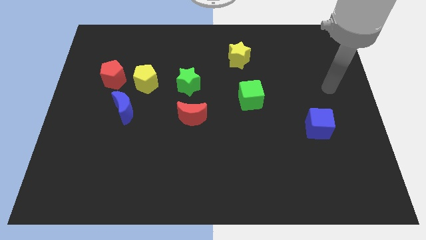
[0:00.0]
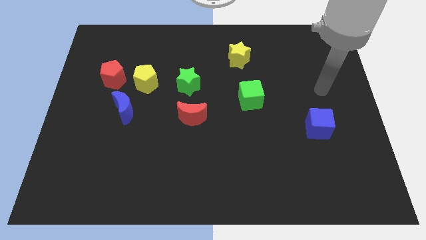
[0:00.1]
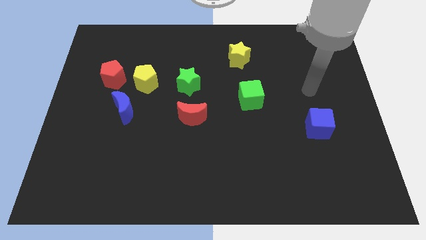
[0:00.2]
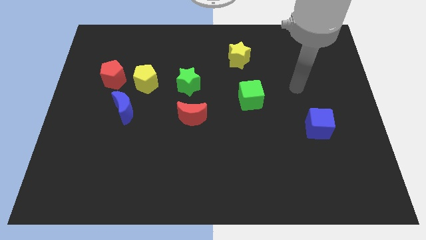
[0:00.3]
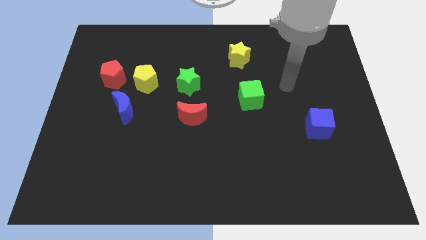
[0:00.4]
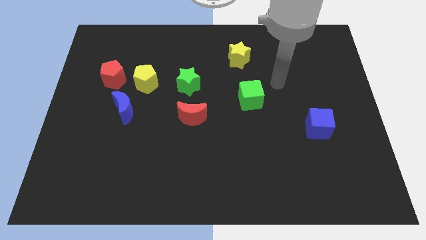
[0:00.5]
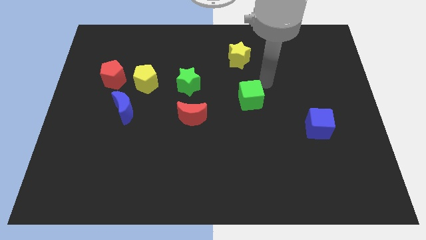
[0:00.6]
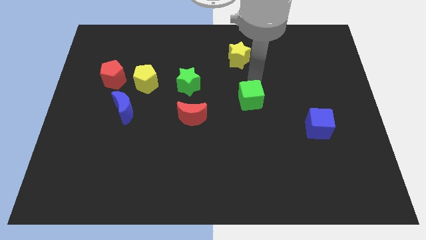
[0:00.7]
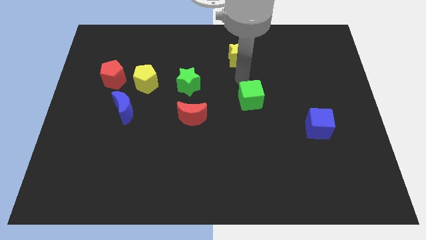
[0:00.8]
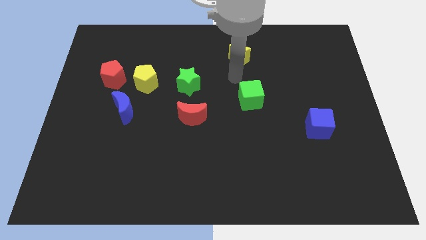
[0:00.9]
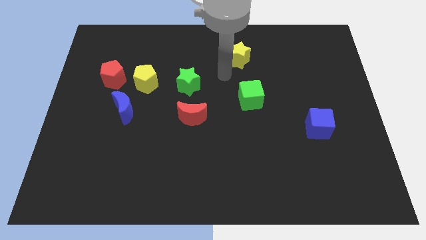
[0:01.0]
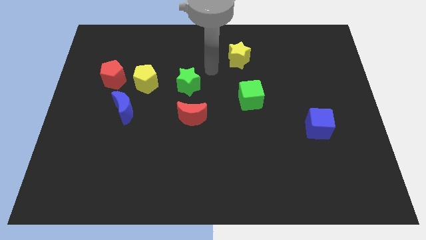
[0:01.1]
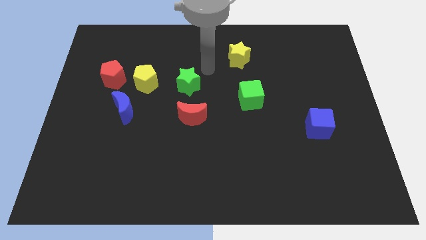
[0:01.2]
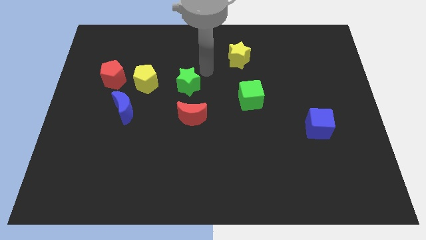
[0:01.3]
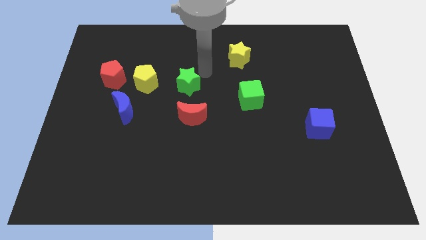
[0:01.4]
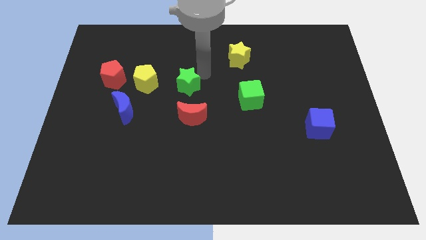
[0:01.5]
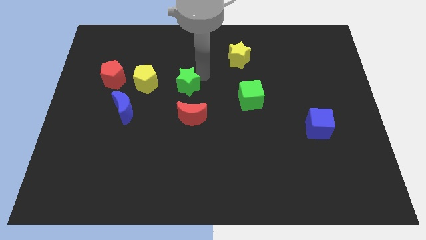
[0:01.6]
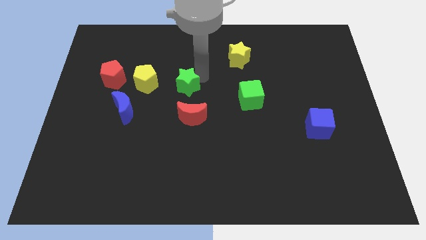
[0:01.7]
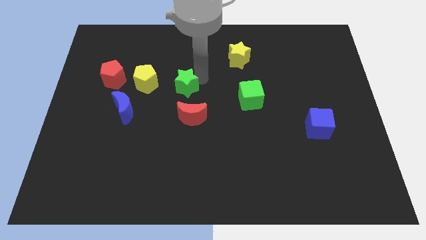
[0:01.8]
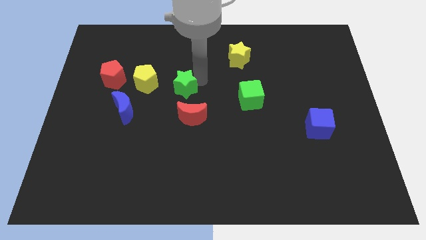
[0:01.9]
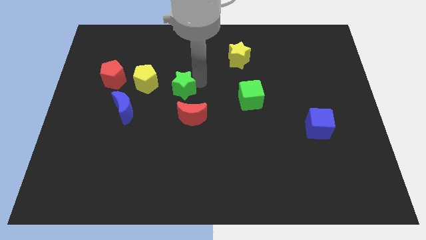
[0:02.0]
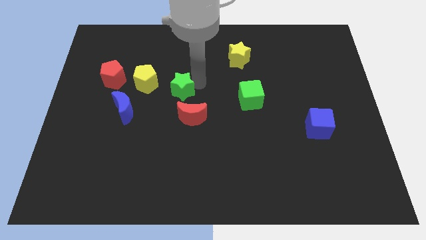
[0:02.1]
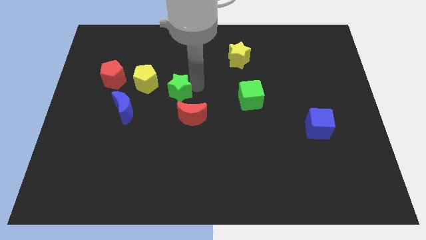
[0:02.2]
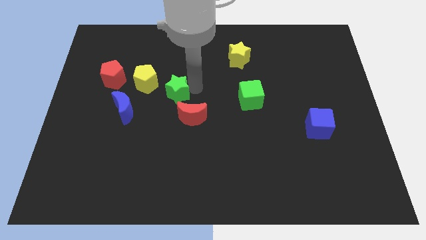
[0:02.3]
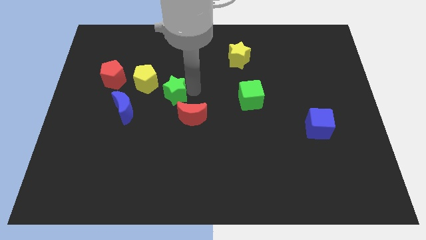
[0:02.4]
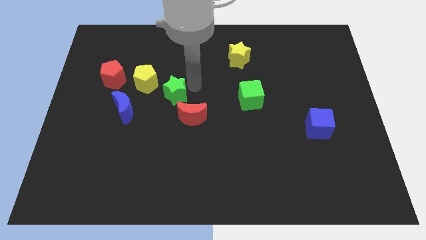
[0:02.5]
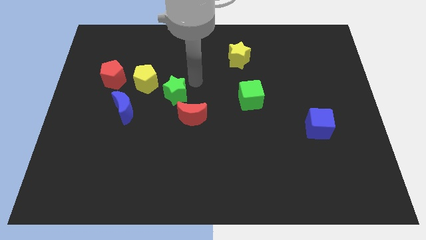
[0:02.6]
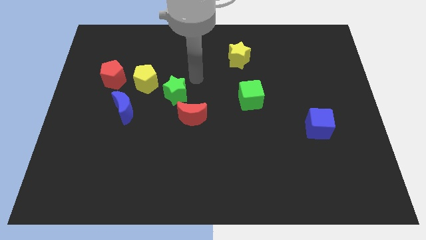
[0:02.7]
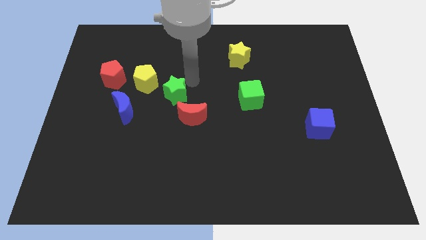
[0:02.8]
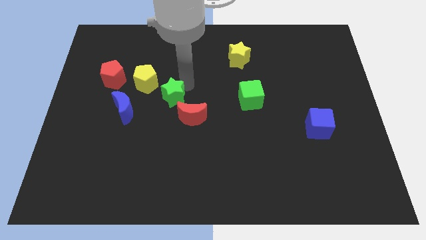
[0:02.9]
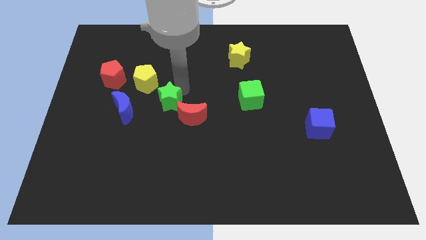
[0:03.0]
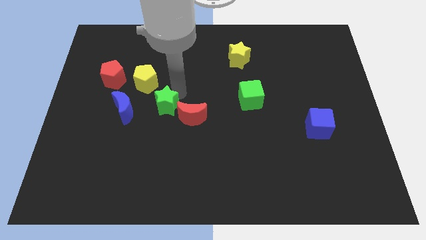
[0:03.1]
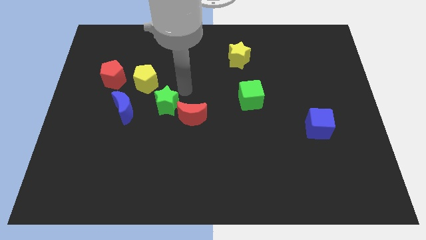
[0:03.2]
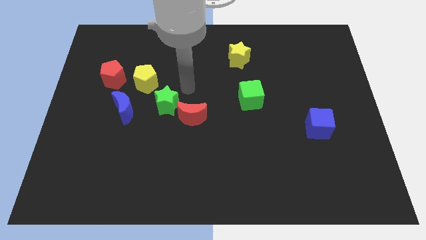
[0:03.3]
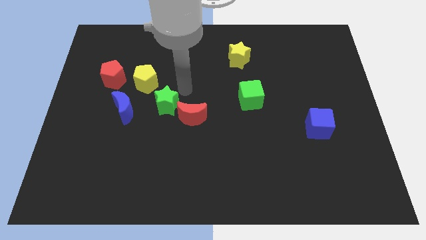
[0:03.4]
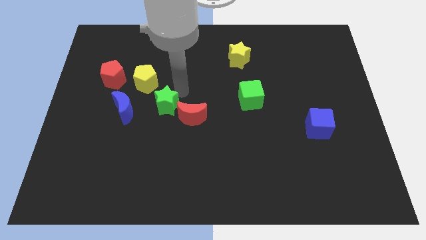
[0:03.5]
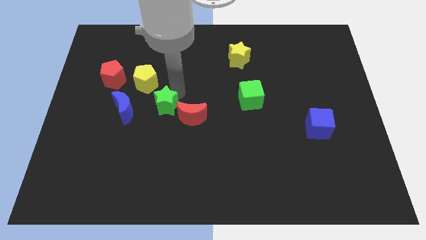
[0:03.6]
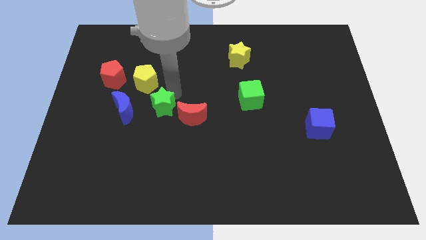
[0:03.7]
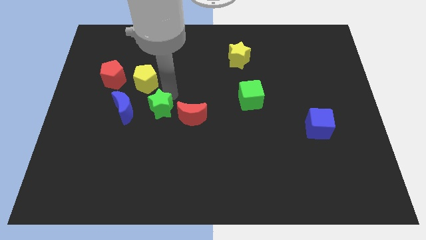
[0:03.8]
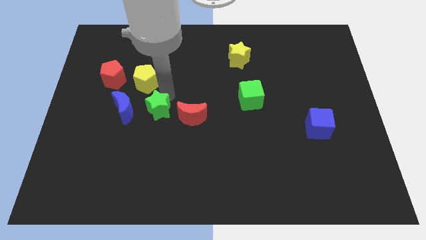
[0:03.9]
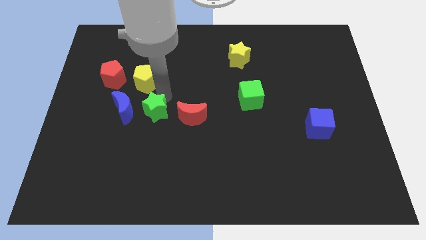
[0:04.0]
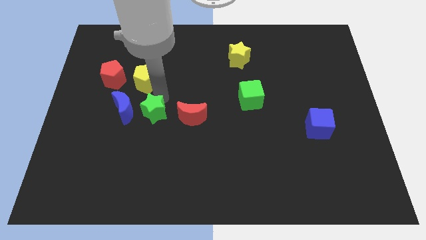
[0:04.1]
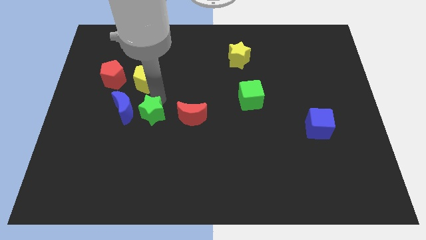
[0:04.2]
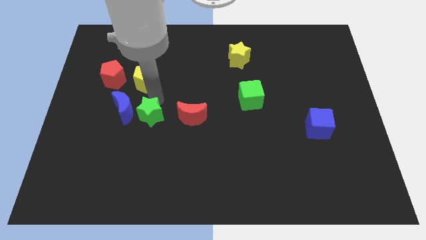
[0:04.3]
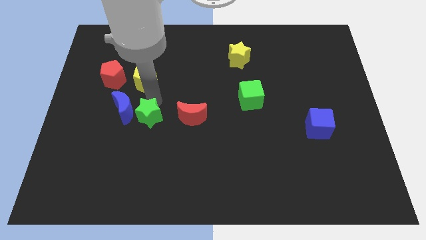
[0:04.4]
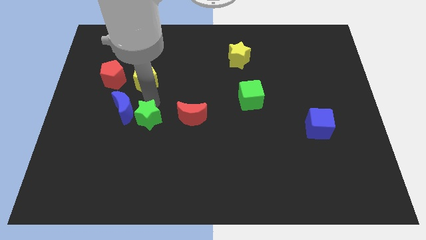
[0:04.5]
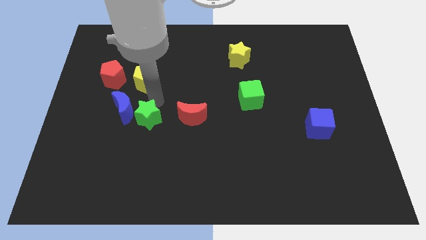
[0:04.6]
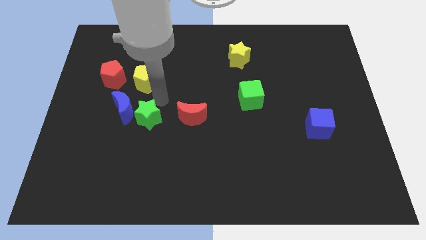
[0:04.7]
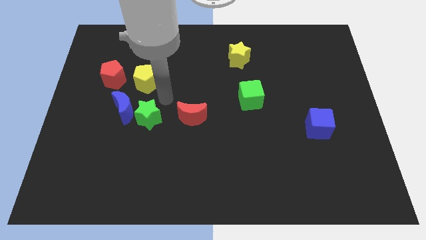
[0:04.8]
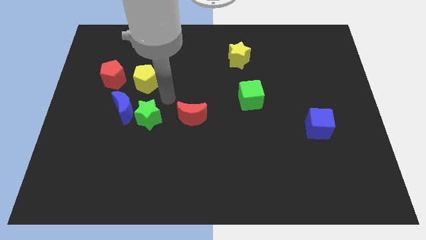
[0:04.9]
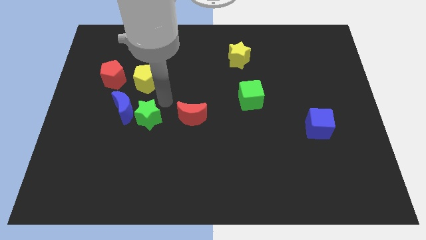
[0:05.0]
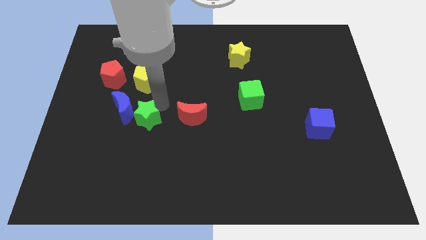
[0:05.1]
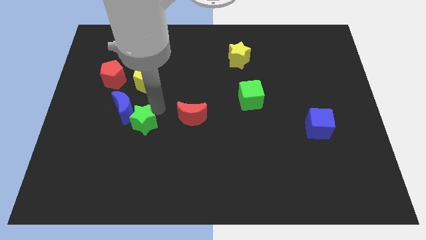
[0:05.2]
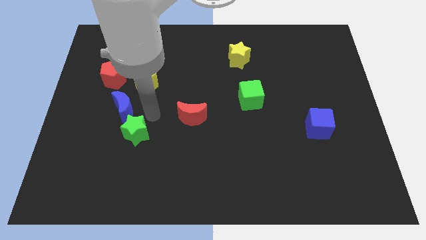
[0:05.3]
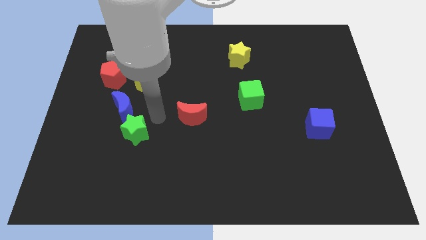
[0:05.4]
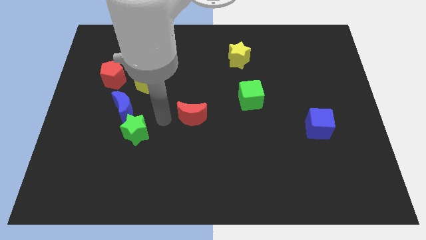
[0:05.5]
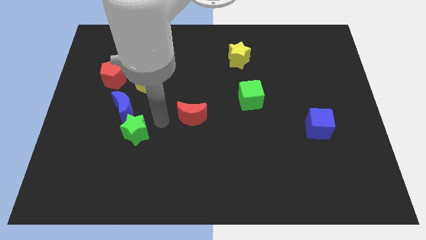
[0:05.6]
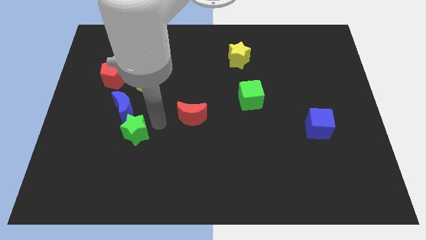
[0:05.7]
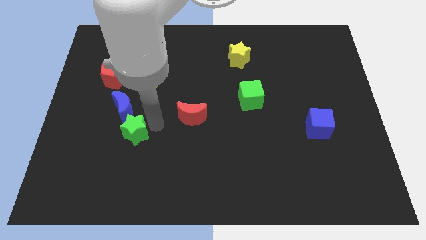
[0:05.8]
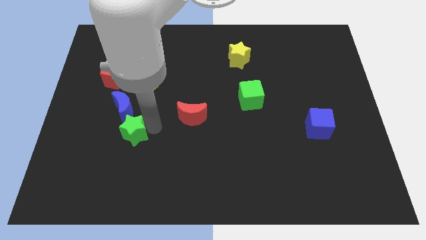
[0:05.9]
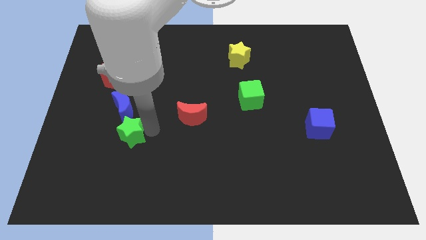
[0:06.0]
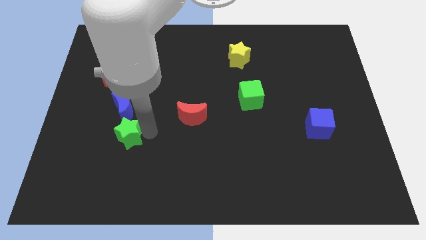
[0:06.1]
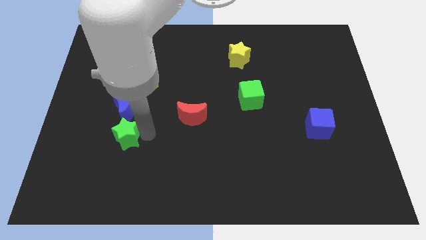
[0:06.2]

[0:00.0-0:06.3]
slide the green star down and to the left

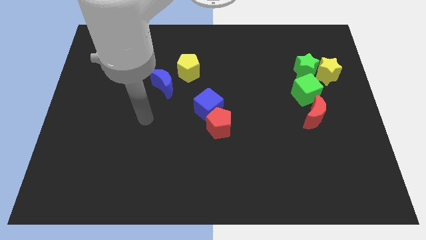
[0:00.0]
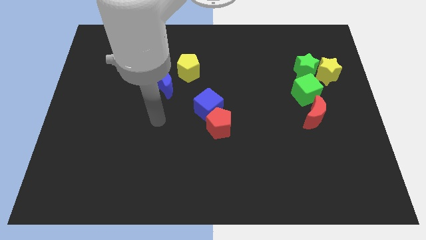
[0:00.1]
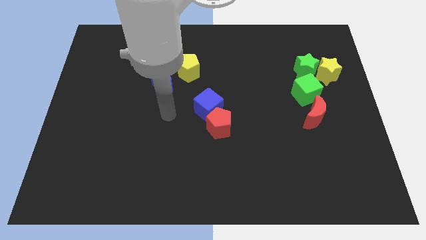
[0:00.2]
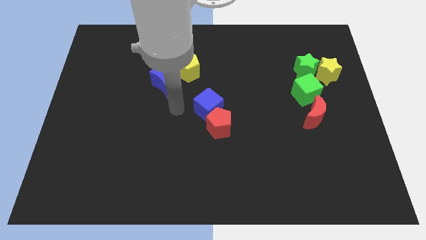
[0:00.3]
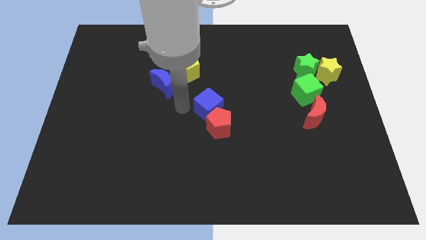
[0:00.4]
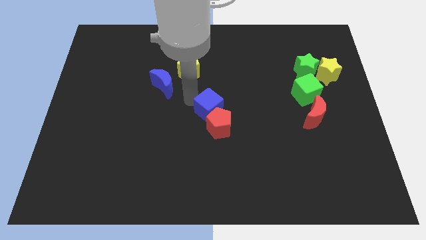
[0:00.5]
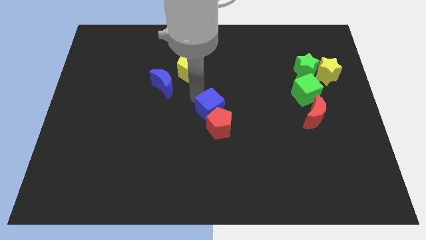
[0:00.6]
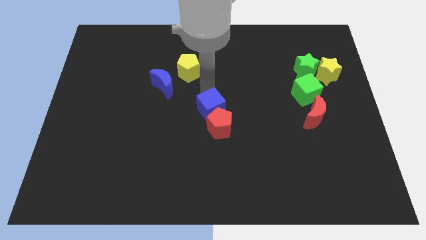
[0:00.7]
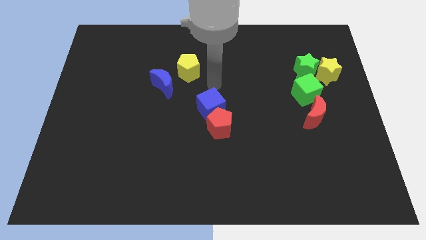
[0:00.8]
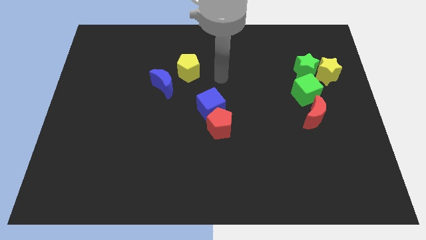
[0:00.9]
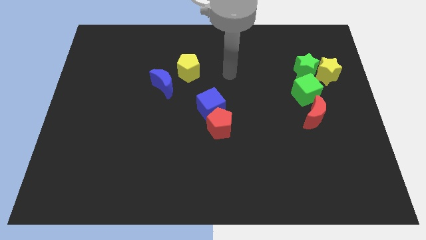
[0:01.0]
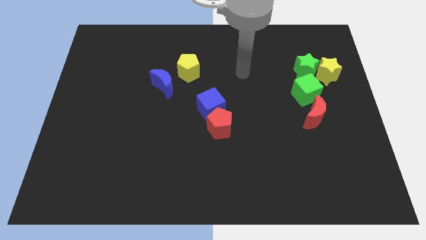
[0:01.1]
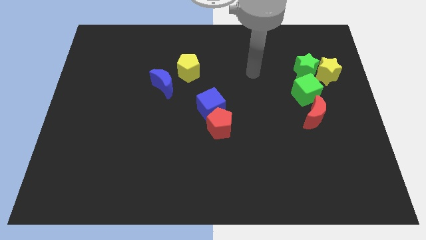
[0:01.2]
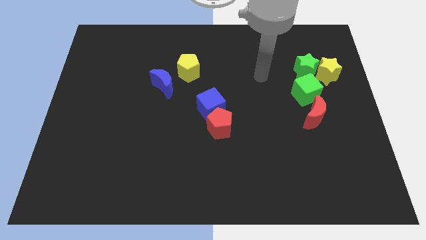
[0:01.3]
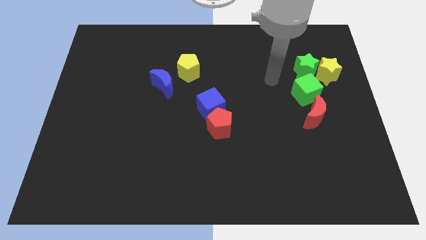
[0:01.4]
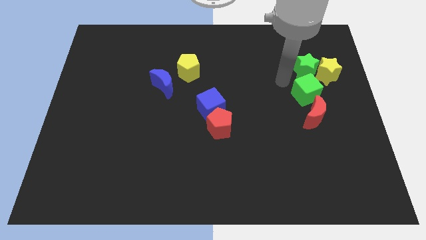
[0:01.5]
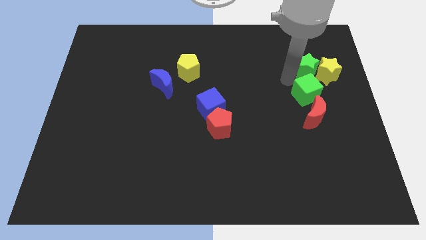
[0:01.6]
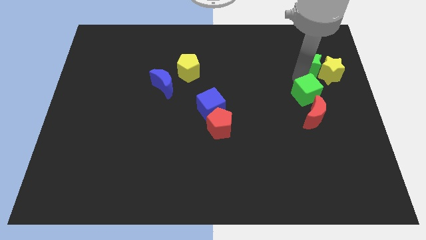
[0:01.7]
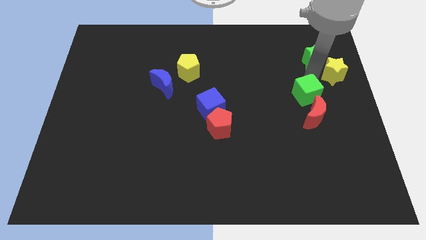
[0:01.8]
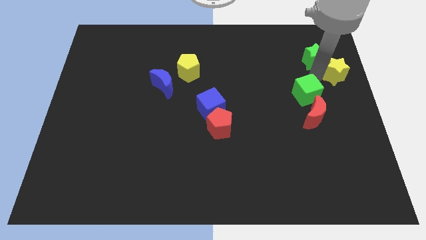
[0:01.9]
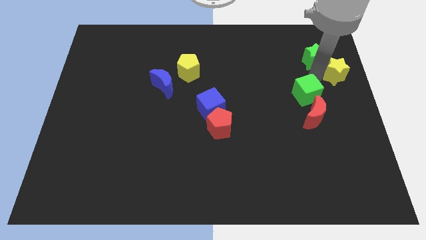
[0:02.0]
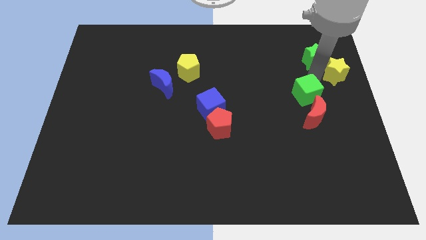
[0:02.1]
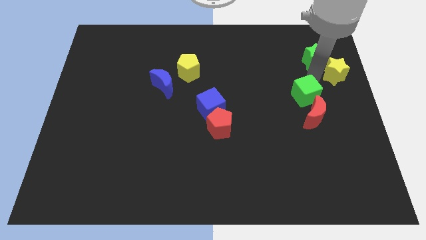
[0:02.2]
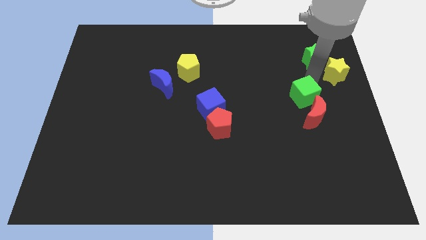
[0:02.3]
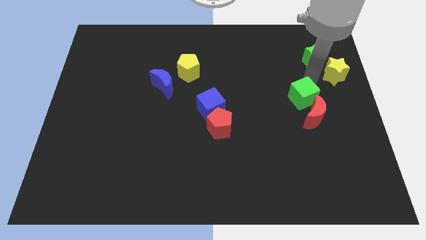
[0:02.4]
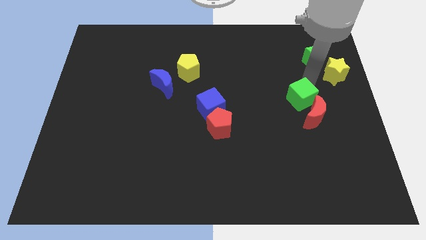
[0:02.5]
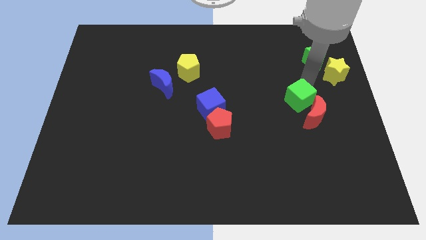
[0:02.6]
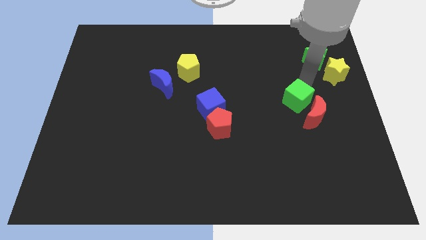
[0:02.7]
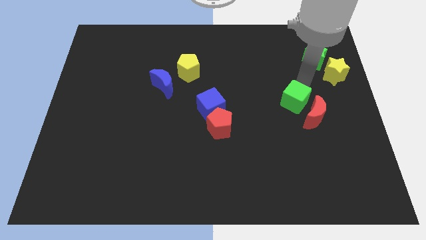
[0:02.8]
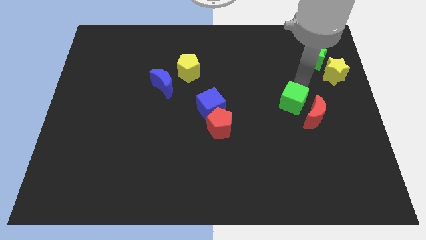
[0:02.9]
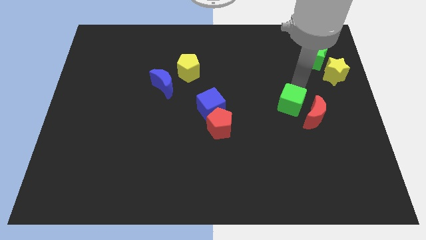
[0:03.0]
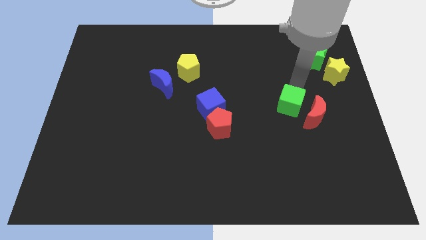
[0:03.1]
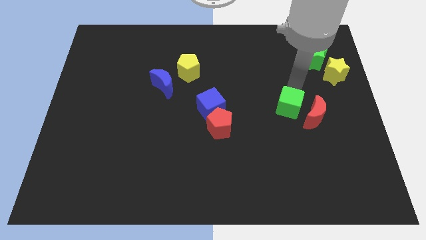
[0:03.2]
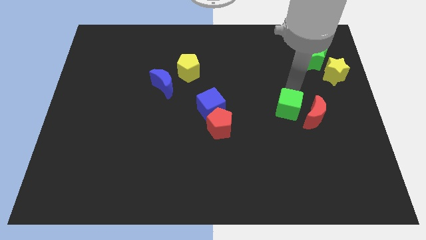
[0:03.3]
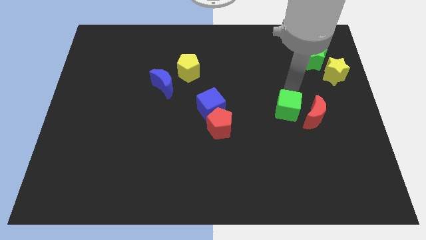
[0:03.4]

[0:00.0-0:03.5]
push the green cube somewhat diagonally down and left
